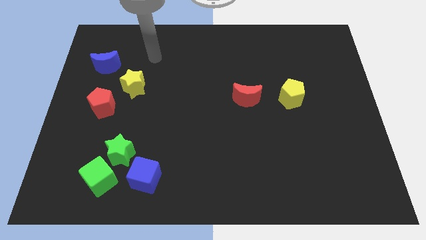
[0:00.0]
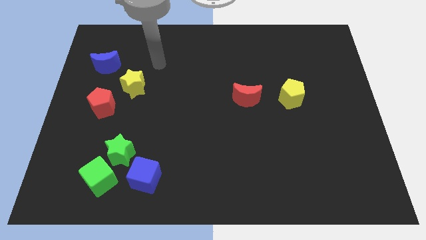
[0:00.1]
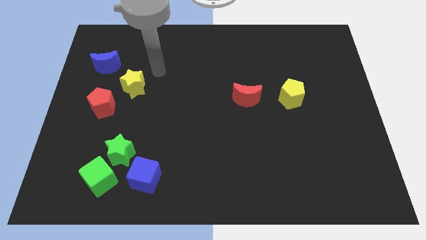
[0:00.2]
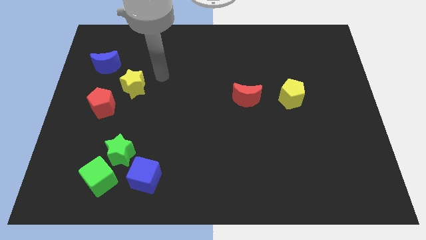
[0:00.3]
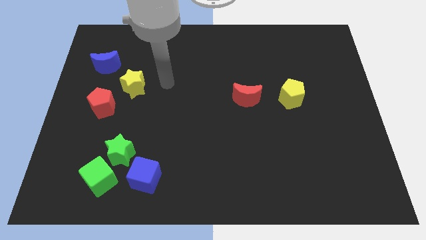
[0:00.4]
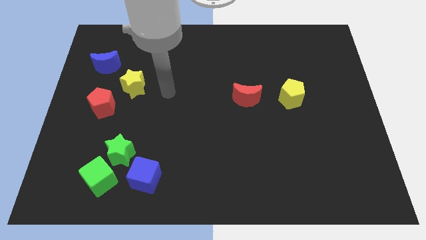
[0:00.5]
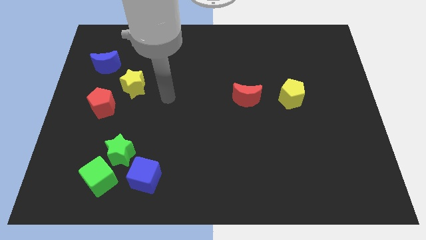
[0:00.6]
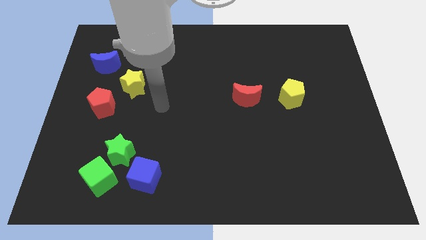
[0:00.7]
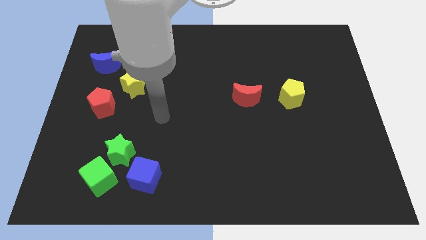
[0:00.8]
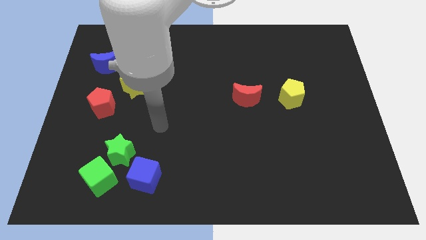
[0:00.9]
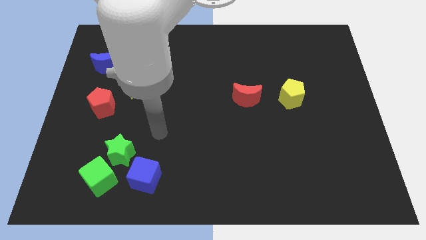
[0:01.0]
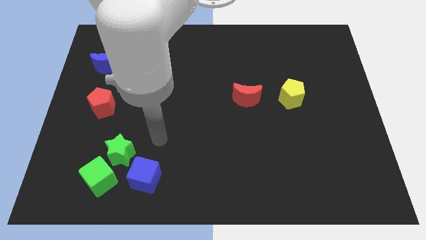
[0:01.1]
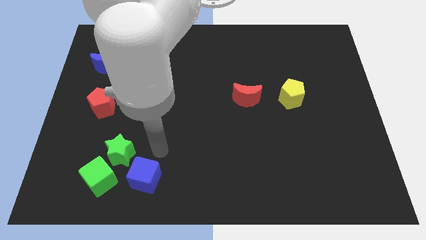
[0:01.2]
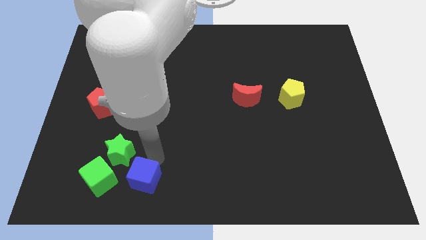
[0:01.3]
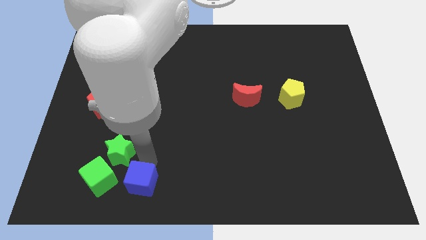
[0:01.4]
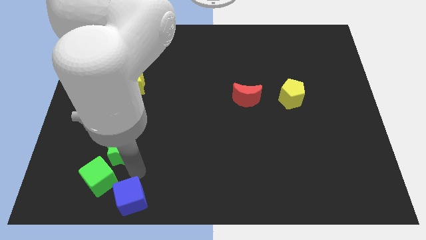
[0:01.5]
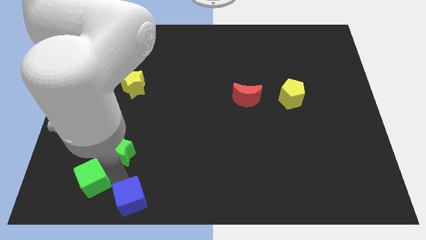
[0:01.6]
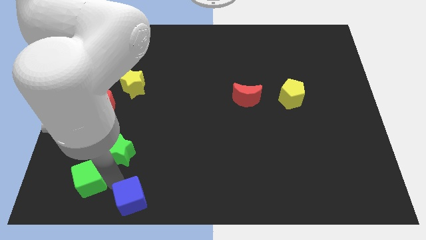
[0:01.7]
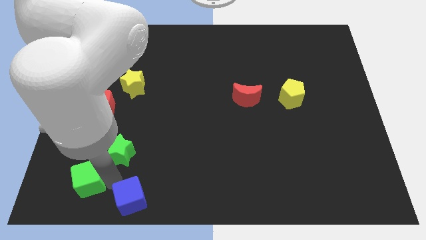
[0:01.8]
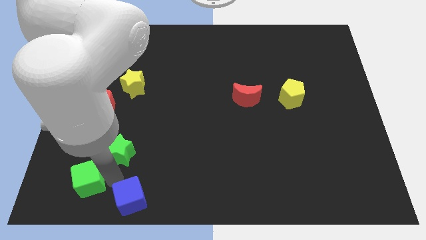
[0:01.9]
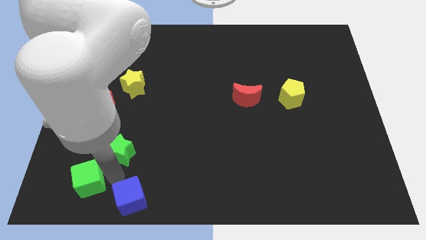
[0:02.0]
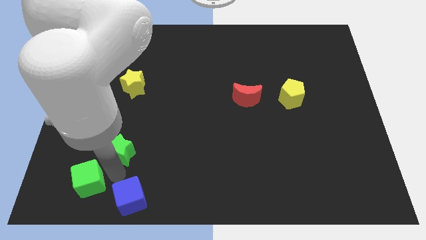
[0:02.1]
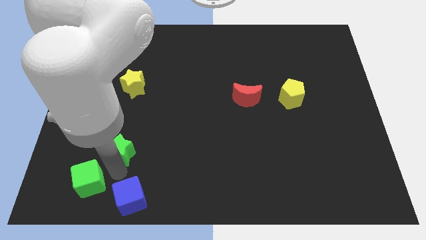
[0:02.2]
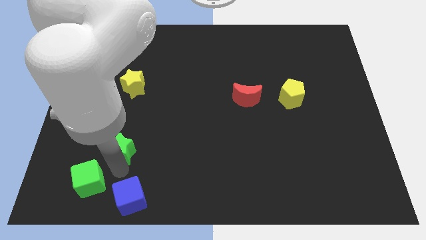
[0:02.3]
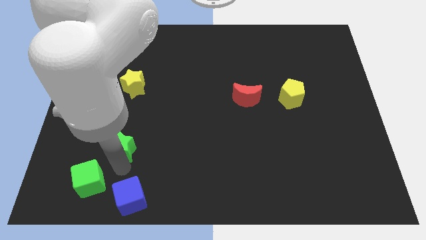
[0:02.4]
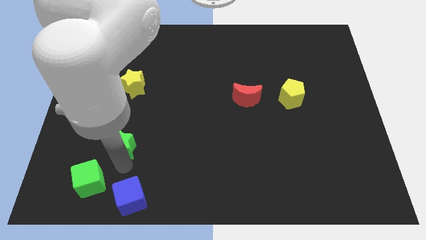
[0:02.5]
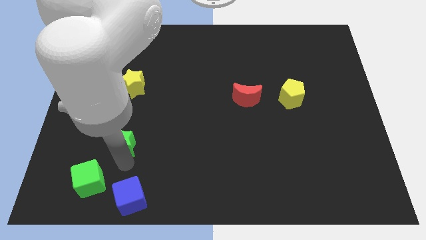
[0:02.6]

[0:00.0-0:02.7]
pull the green star apart from the green cube and blue cube

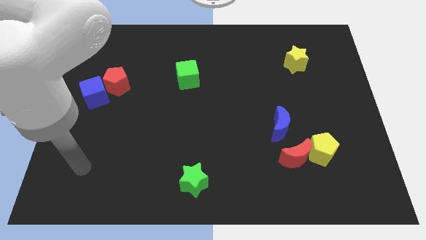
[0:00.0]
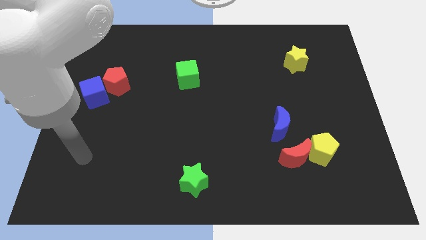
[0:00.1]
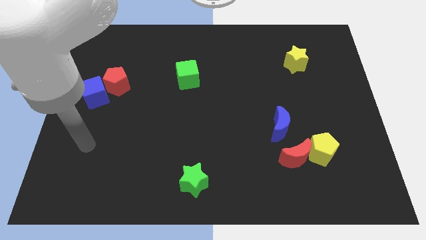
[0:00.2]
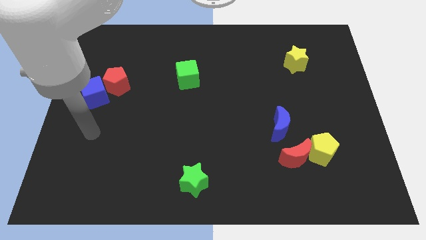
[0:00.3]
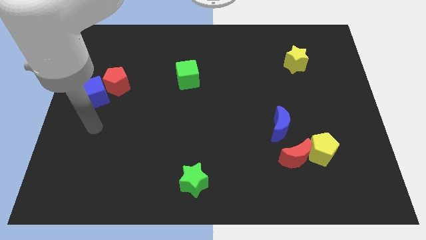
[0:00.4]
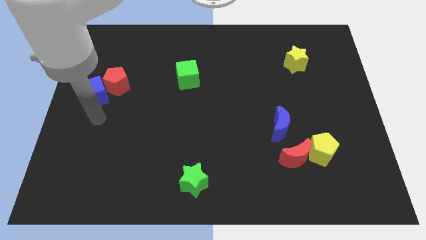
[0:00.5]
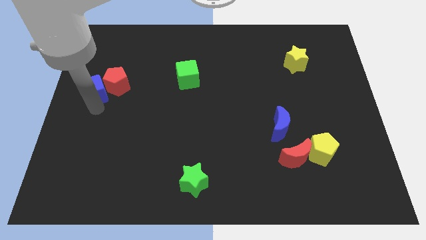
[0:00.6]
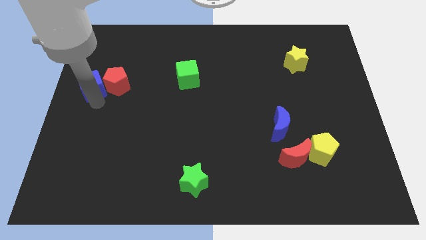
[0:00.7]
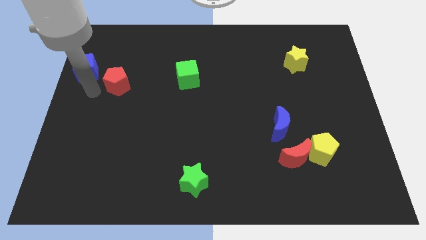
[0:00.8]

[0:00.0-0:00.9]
separate the red pentagon from the blue cube

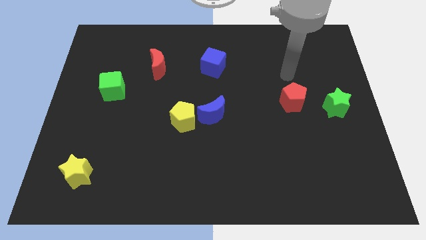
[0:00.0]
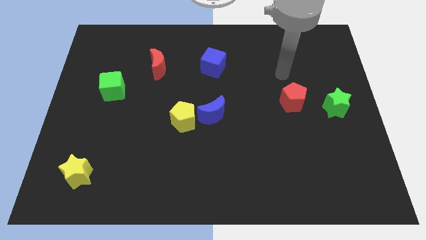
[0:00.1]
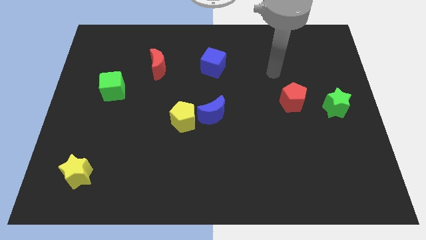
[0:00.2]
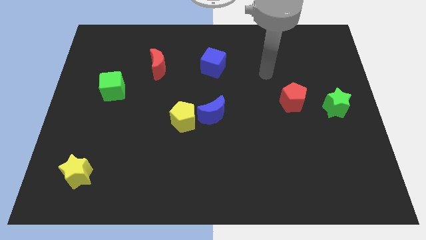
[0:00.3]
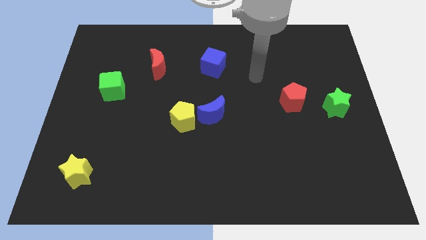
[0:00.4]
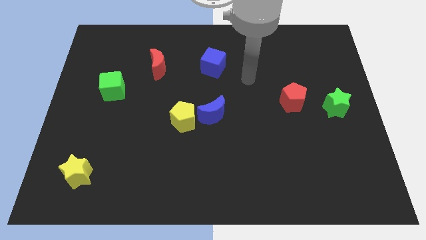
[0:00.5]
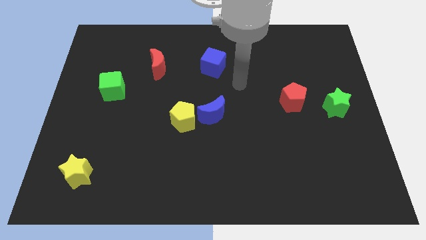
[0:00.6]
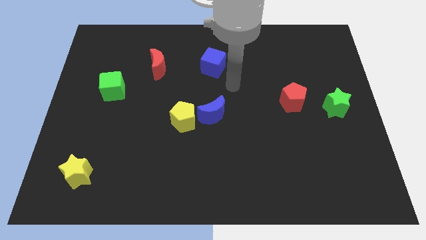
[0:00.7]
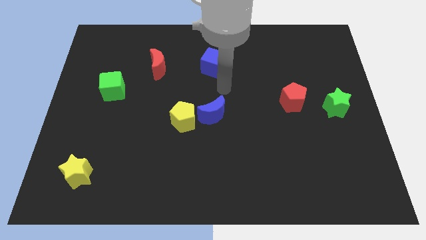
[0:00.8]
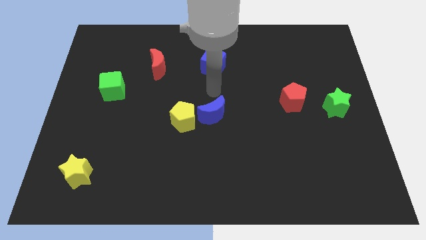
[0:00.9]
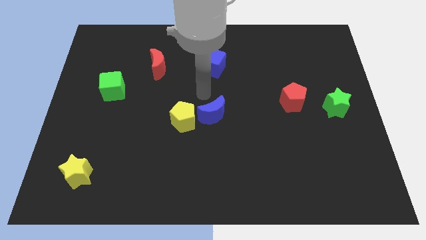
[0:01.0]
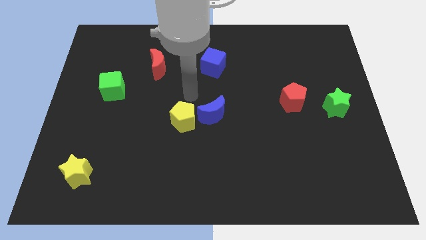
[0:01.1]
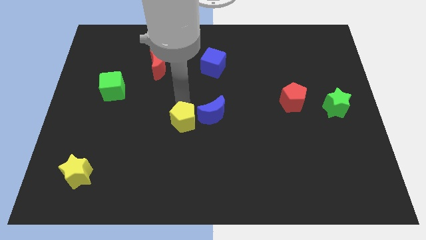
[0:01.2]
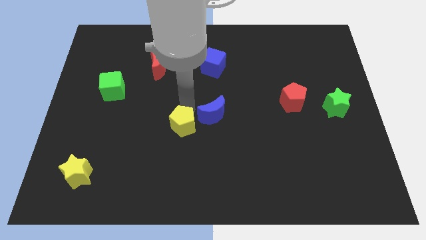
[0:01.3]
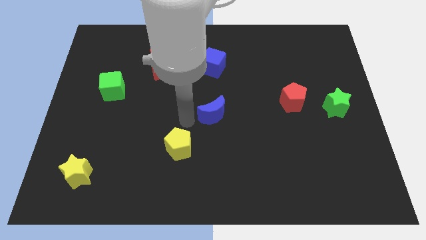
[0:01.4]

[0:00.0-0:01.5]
separate the blue moon from the yellow pentagon

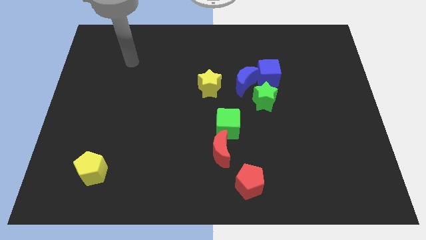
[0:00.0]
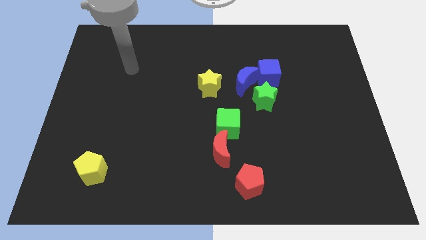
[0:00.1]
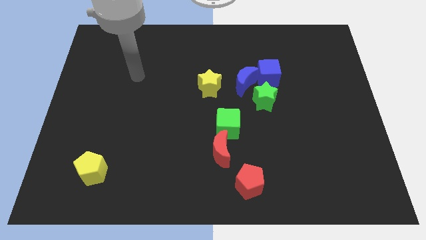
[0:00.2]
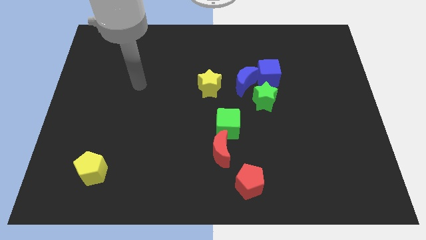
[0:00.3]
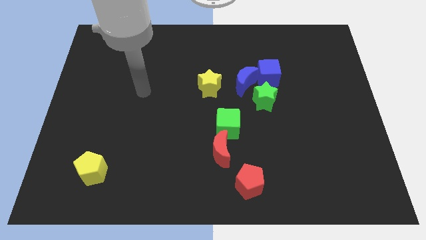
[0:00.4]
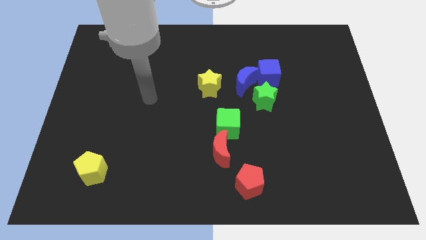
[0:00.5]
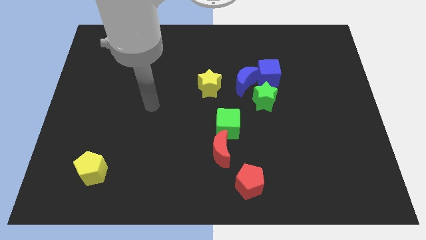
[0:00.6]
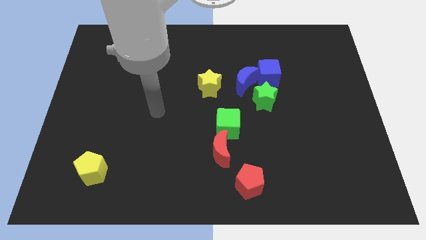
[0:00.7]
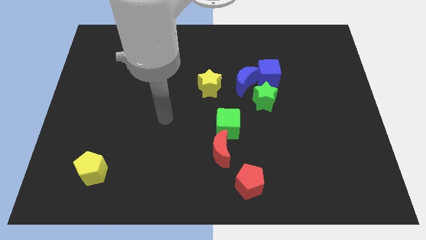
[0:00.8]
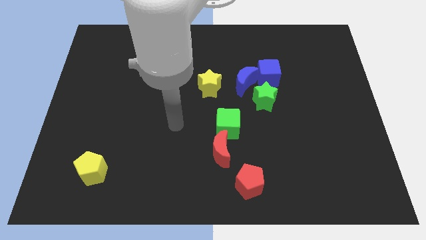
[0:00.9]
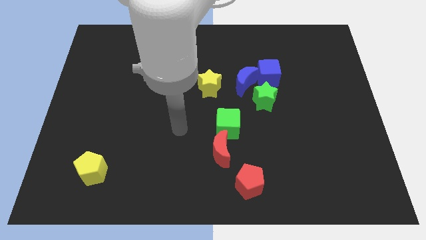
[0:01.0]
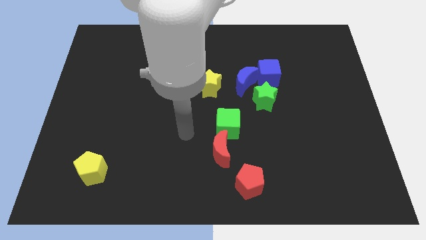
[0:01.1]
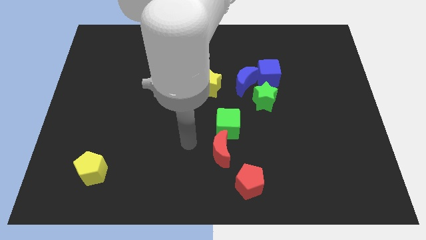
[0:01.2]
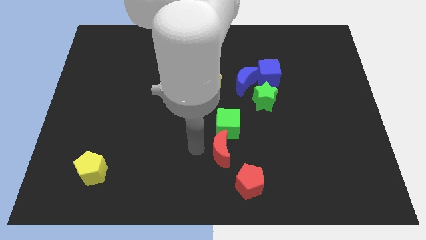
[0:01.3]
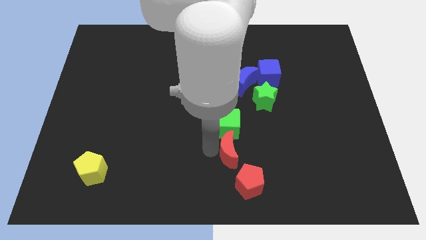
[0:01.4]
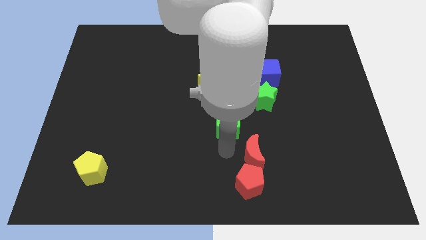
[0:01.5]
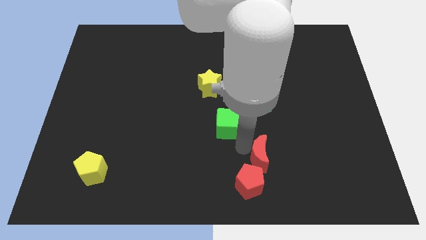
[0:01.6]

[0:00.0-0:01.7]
move the green cube away from the red moon

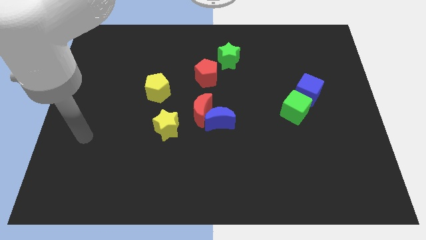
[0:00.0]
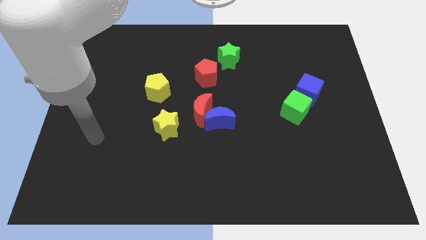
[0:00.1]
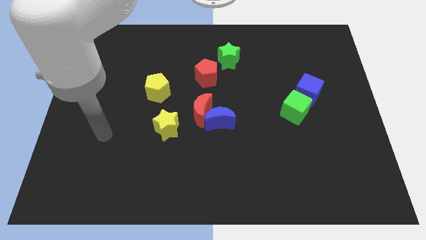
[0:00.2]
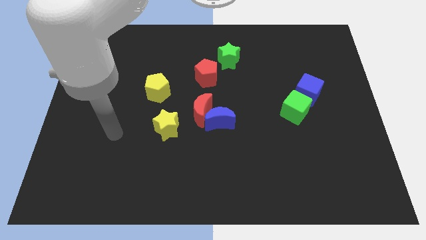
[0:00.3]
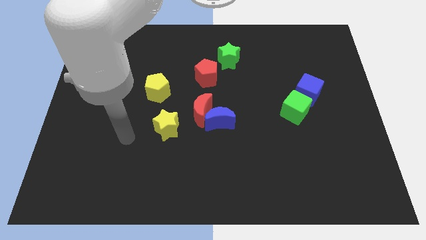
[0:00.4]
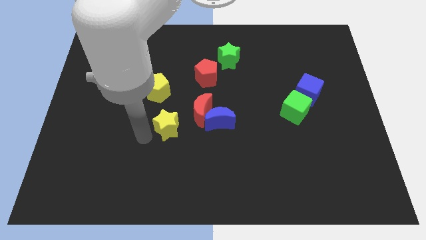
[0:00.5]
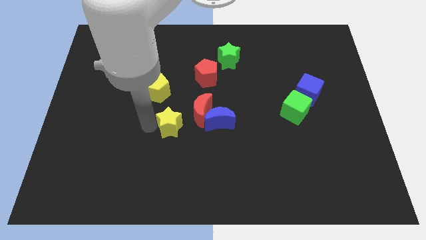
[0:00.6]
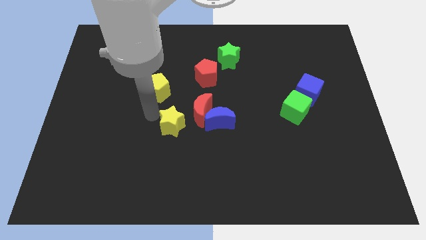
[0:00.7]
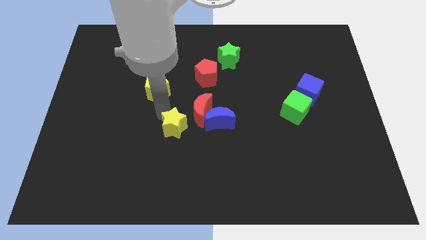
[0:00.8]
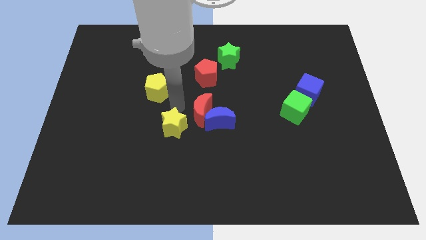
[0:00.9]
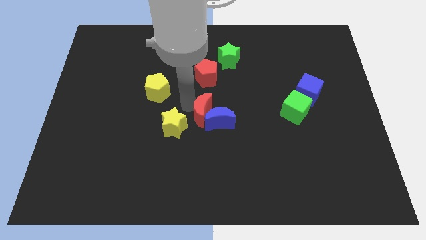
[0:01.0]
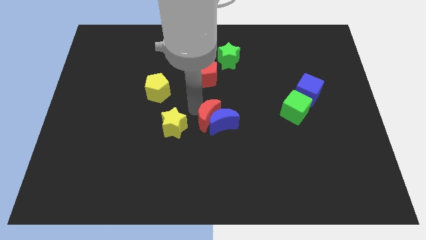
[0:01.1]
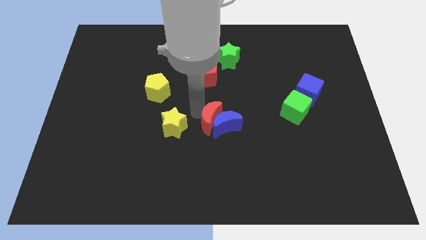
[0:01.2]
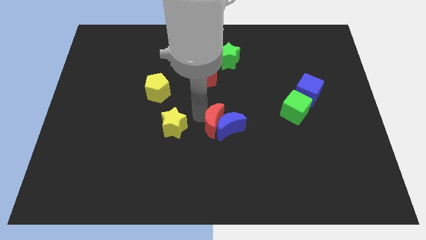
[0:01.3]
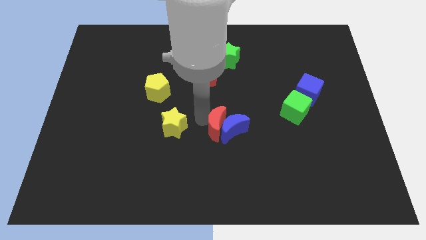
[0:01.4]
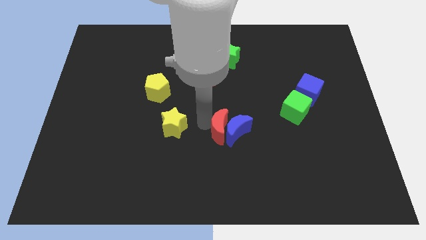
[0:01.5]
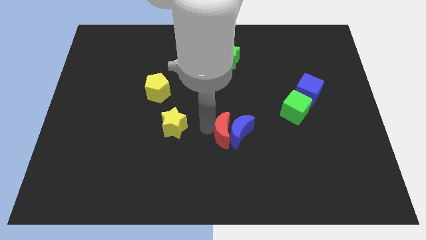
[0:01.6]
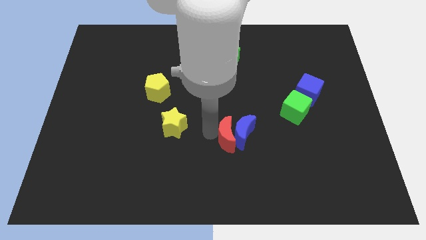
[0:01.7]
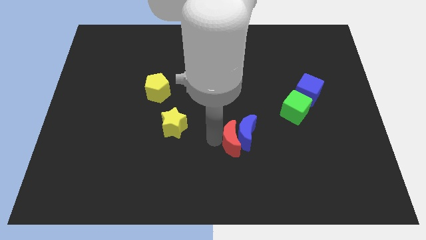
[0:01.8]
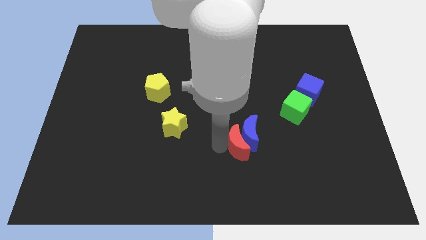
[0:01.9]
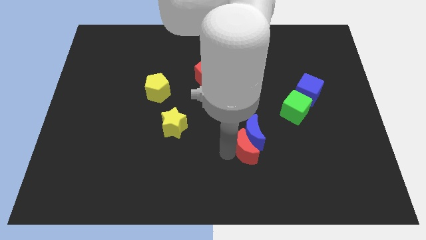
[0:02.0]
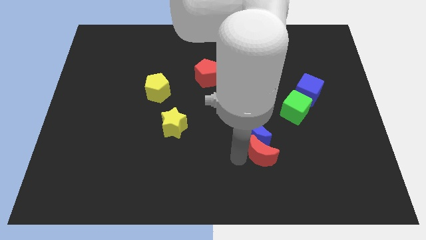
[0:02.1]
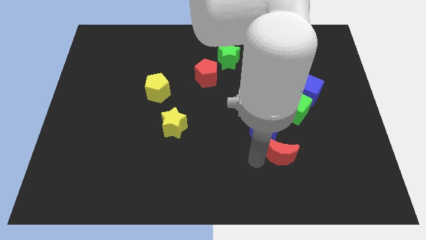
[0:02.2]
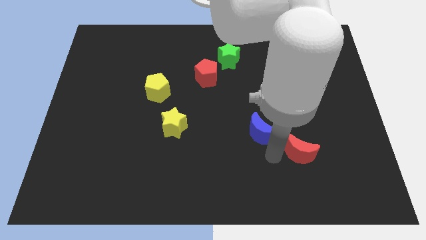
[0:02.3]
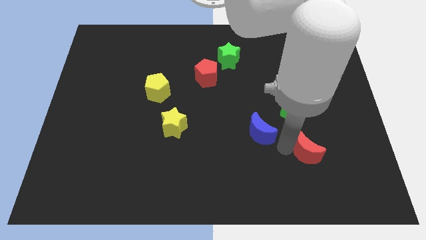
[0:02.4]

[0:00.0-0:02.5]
pull the blue moon apart from the red moon
